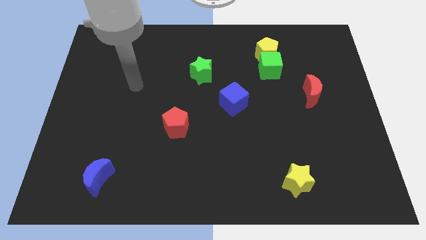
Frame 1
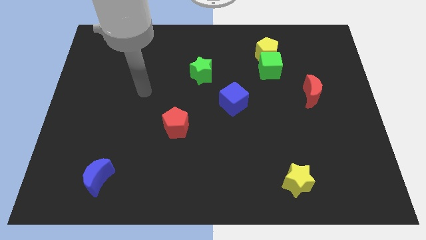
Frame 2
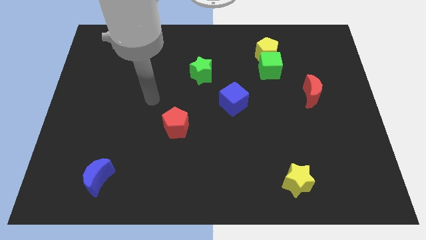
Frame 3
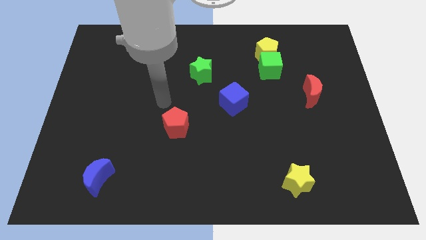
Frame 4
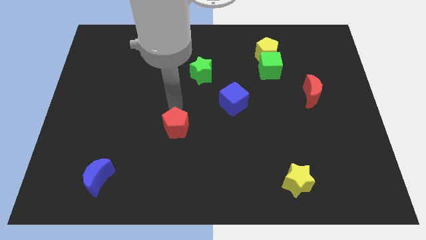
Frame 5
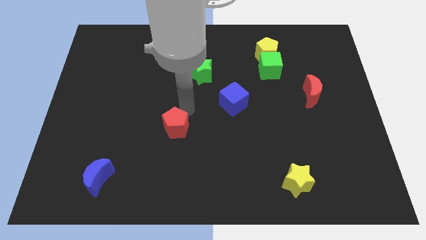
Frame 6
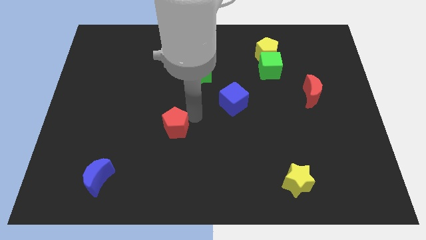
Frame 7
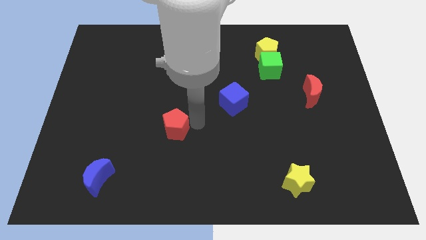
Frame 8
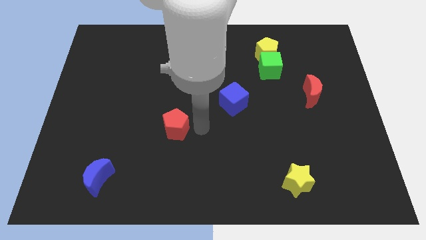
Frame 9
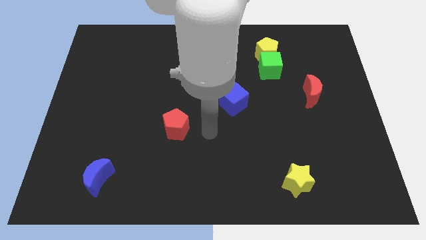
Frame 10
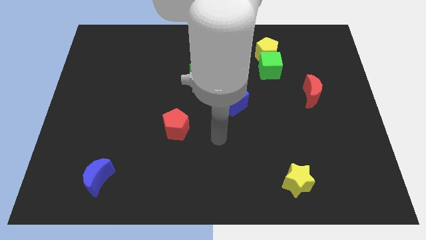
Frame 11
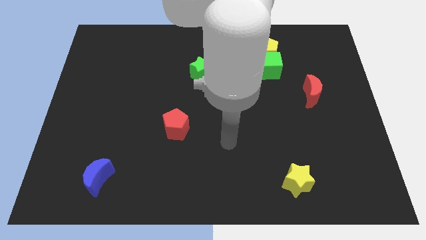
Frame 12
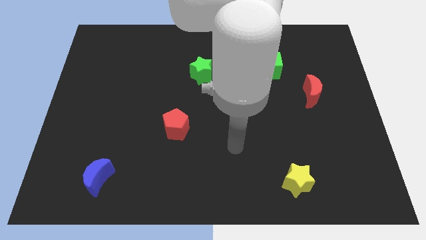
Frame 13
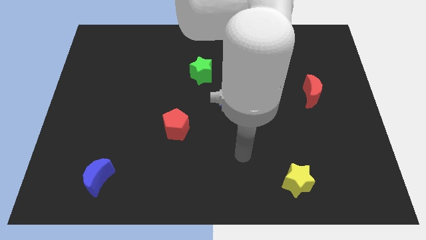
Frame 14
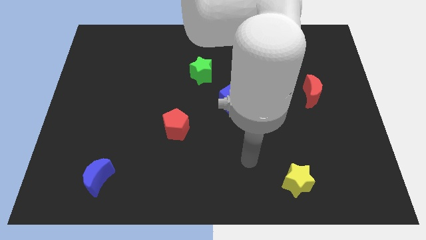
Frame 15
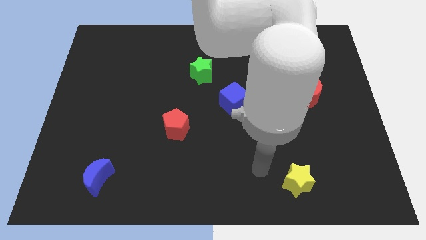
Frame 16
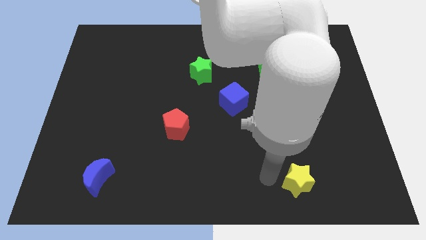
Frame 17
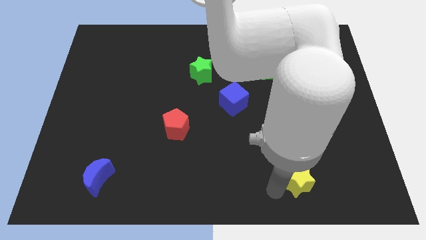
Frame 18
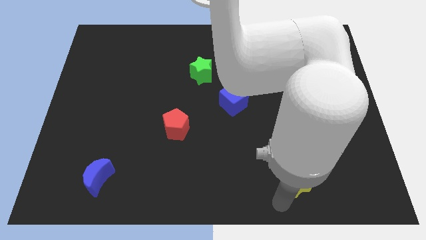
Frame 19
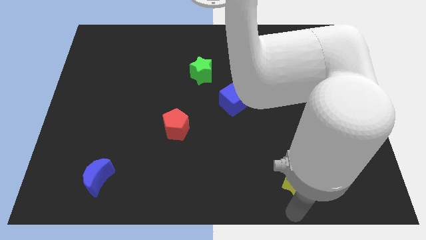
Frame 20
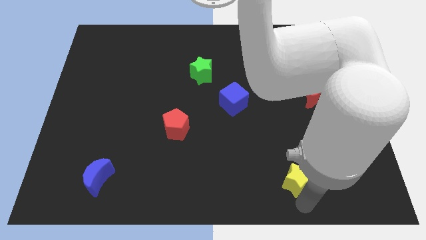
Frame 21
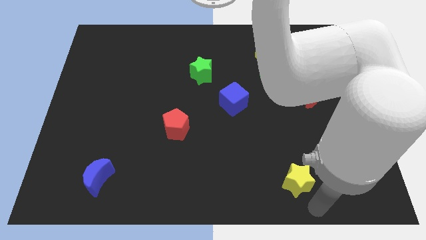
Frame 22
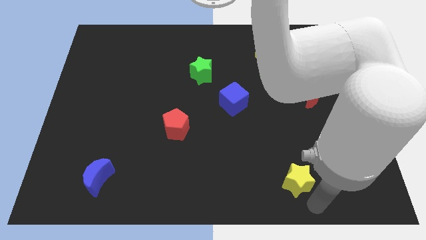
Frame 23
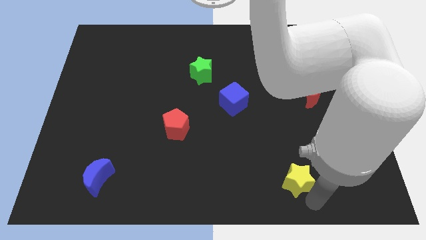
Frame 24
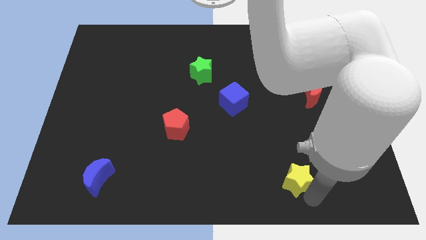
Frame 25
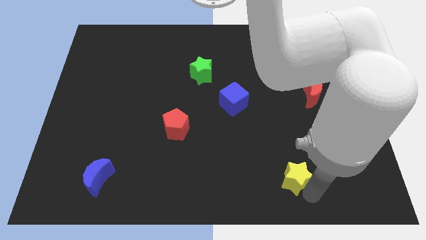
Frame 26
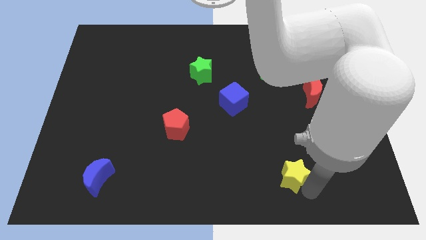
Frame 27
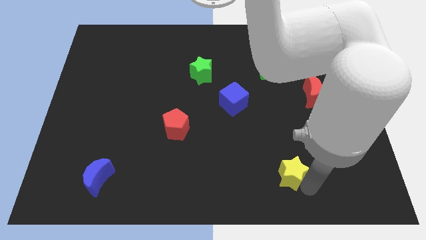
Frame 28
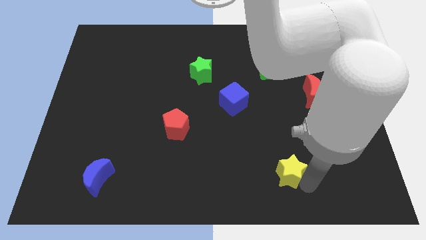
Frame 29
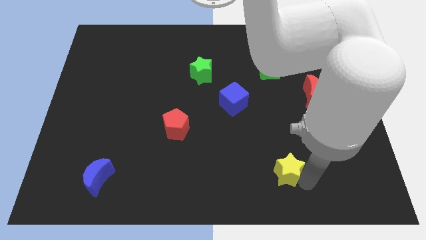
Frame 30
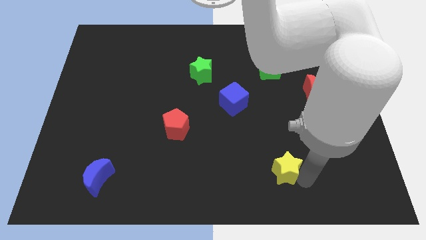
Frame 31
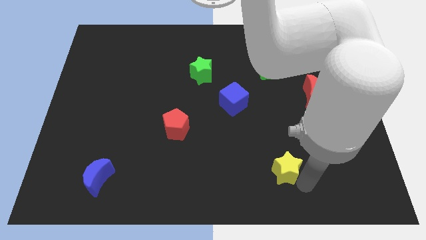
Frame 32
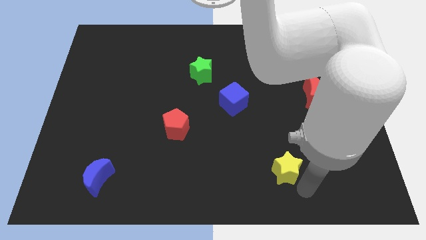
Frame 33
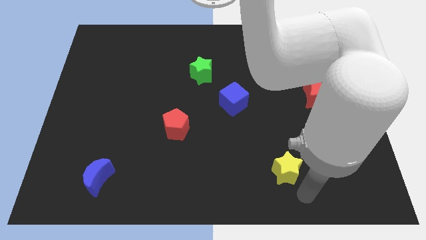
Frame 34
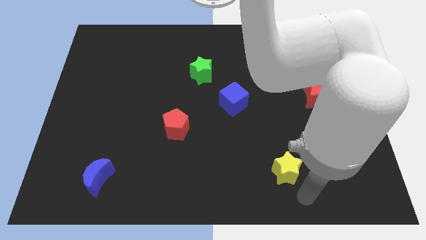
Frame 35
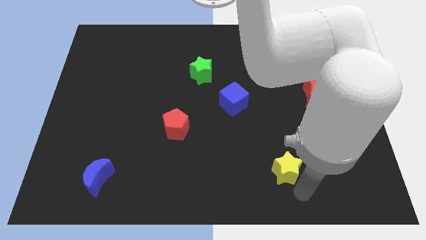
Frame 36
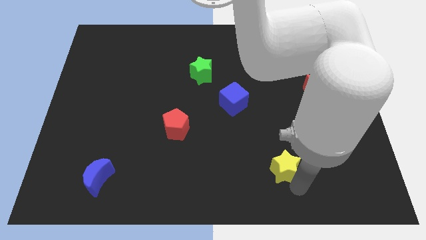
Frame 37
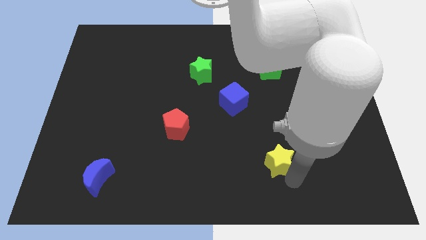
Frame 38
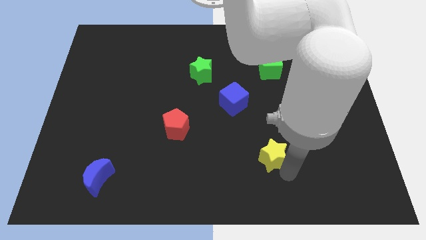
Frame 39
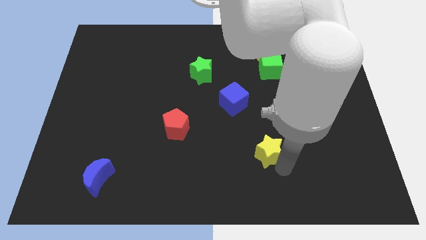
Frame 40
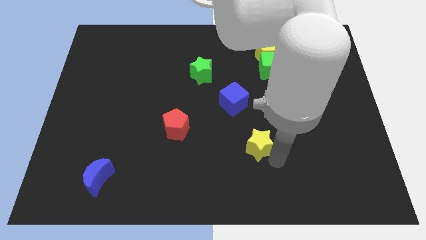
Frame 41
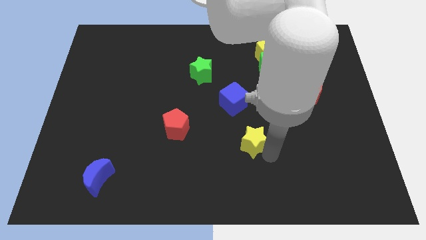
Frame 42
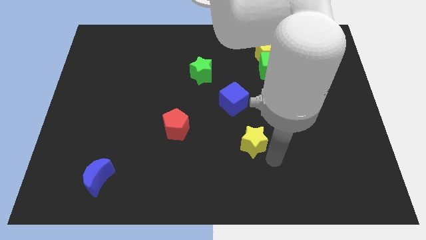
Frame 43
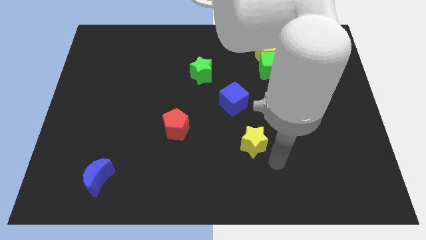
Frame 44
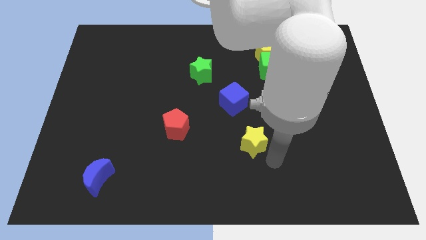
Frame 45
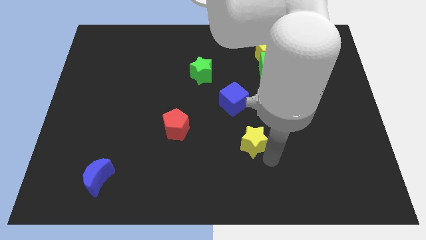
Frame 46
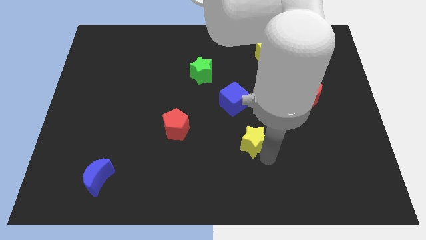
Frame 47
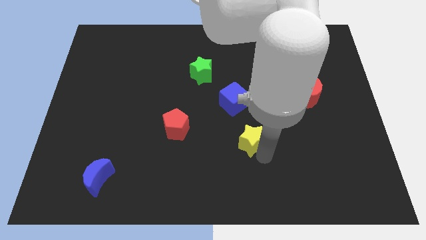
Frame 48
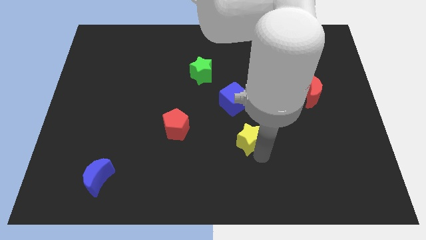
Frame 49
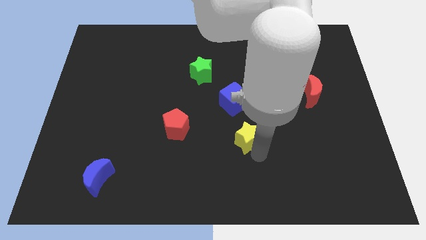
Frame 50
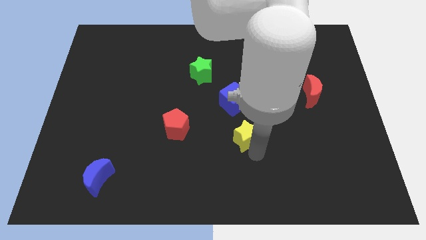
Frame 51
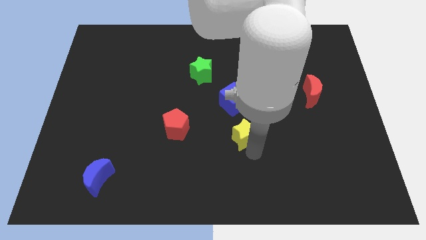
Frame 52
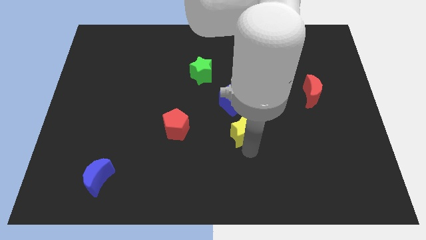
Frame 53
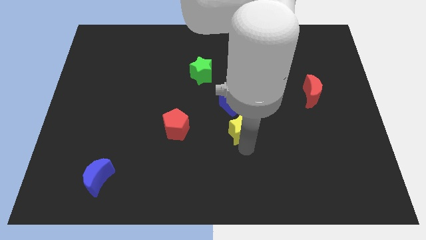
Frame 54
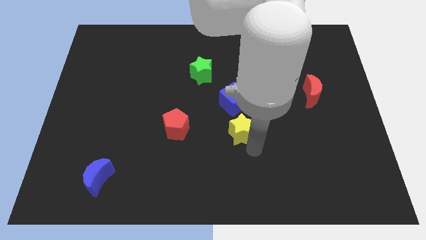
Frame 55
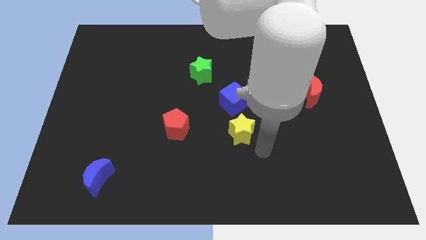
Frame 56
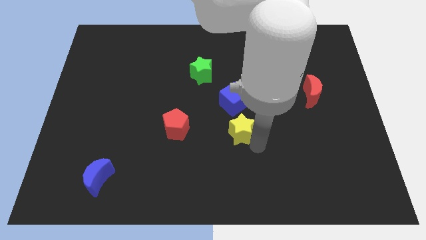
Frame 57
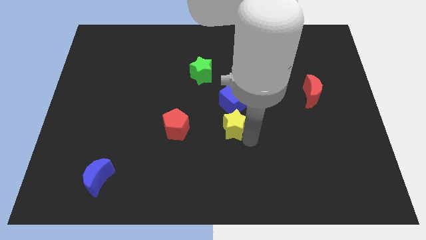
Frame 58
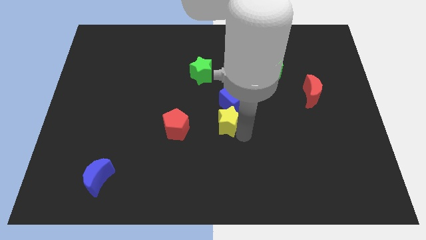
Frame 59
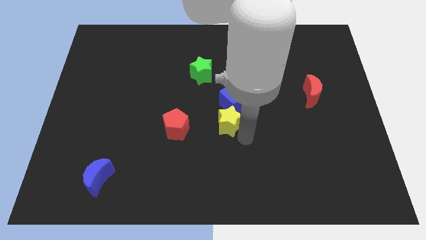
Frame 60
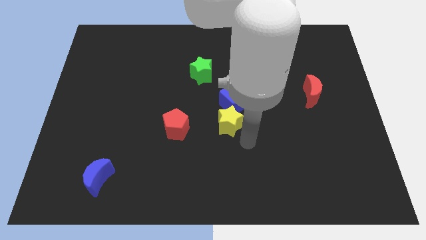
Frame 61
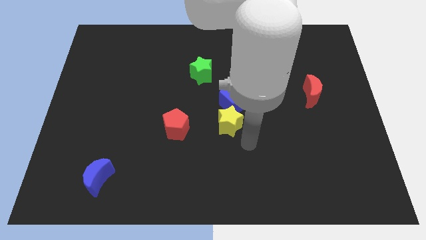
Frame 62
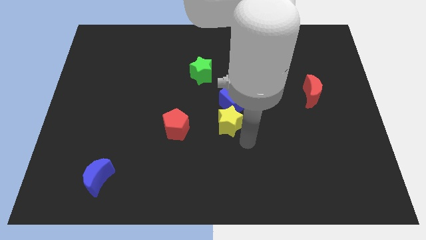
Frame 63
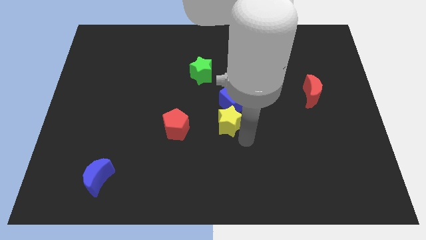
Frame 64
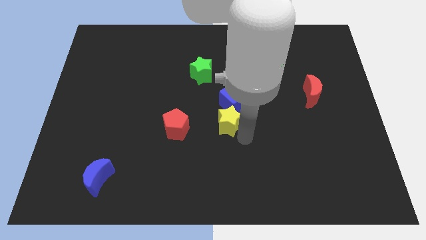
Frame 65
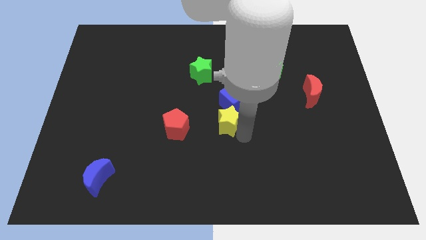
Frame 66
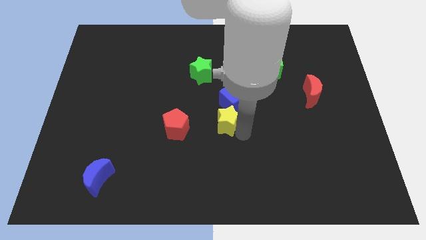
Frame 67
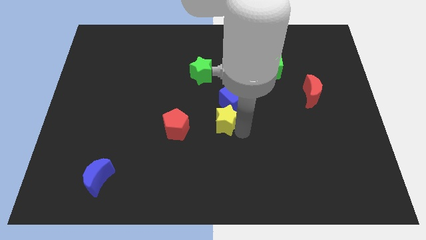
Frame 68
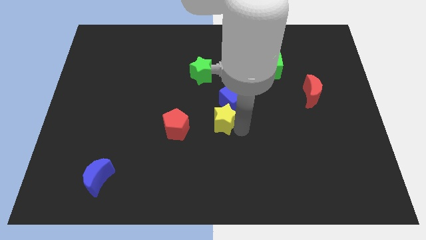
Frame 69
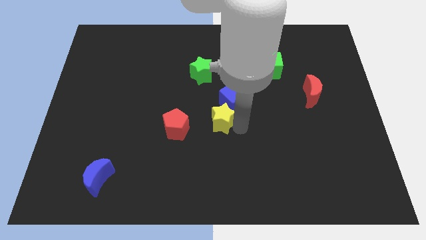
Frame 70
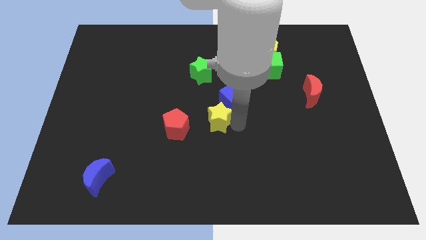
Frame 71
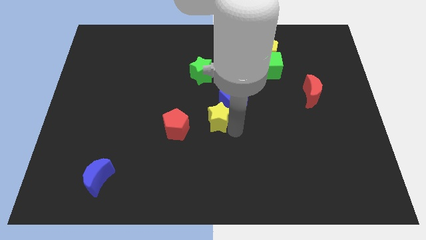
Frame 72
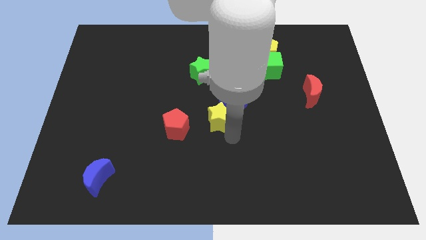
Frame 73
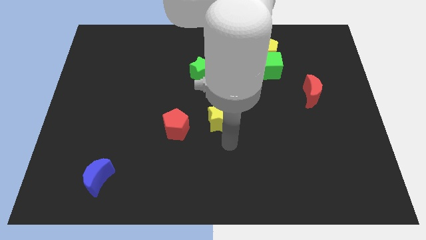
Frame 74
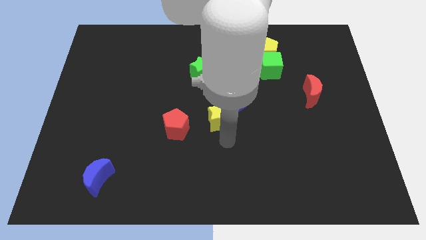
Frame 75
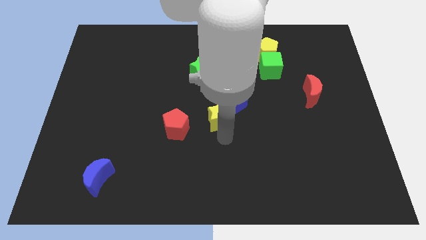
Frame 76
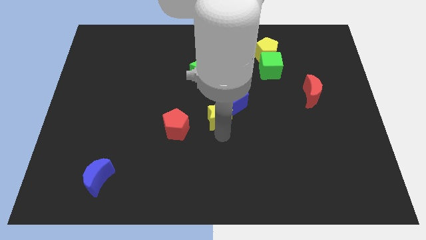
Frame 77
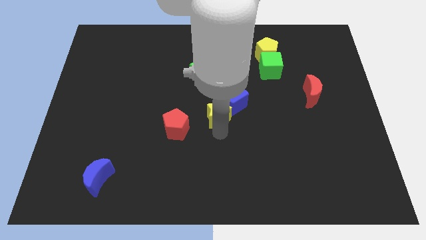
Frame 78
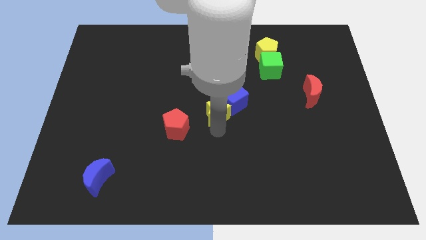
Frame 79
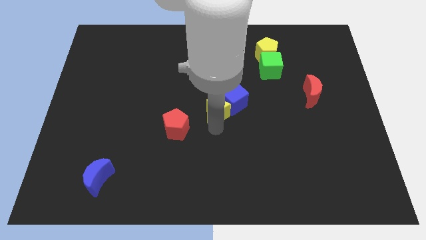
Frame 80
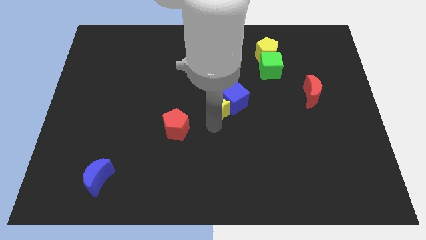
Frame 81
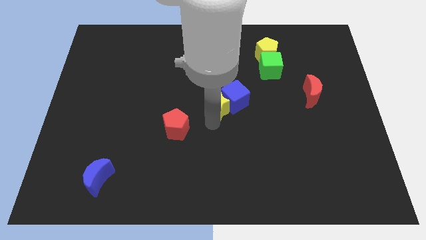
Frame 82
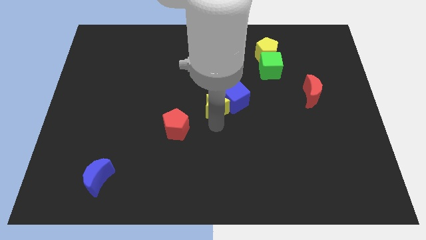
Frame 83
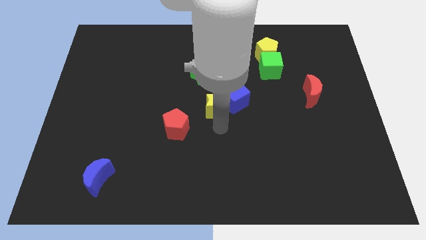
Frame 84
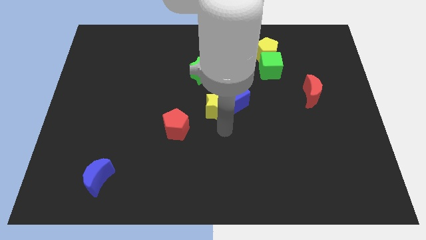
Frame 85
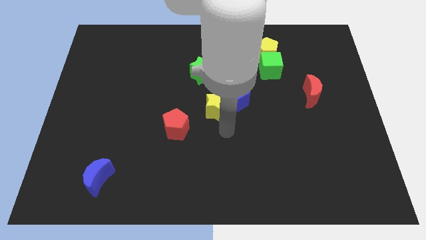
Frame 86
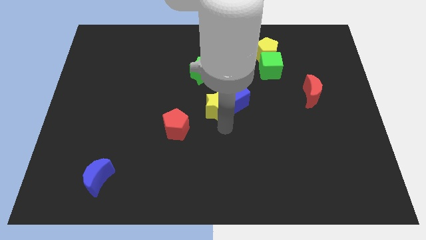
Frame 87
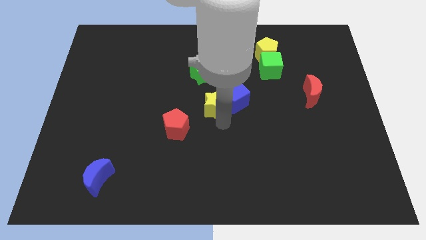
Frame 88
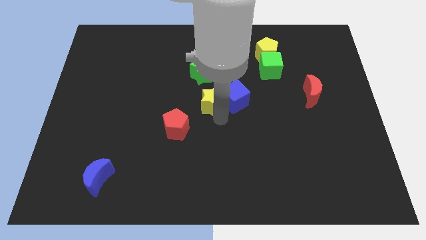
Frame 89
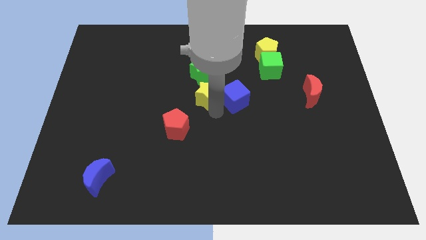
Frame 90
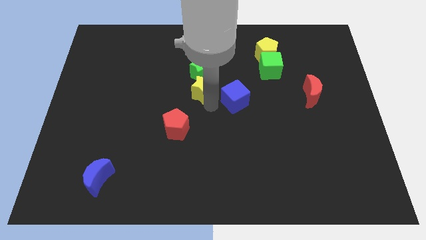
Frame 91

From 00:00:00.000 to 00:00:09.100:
move the yellow star towards the green star
